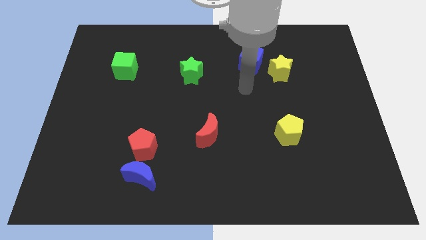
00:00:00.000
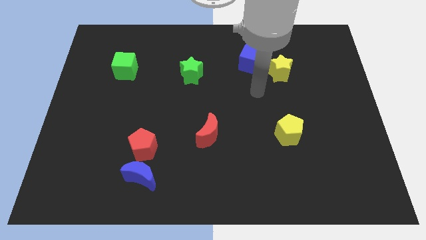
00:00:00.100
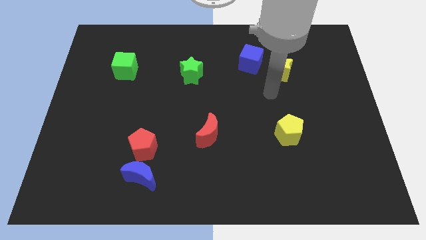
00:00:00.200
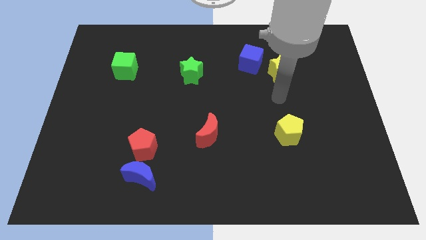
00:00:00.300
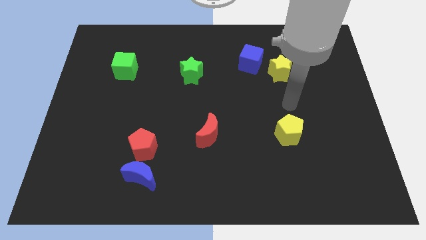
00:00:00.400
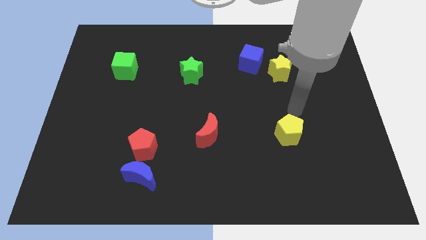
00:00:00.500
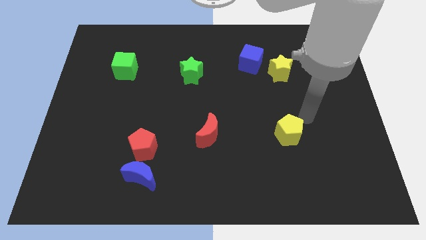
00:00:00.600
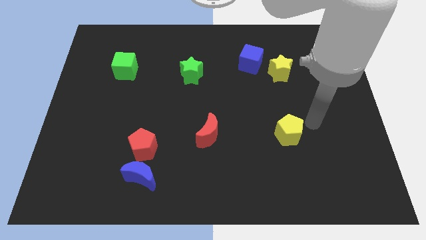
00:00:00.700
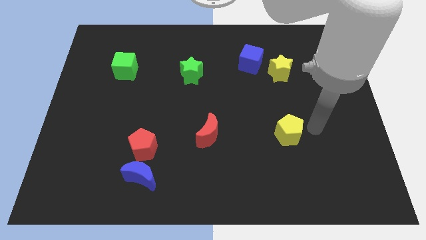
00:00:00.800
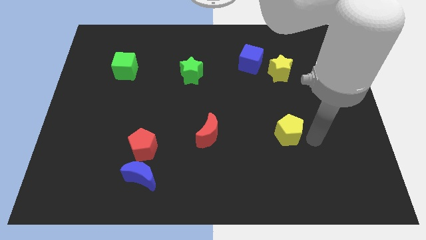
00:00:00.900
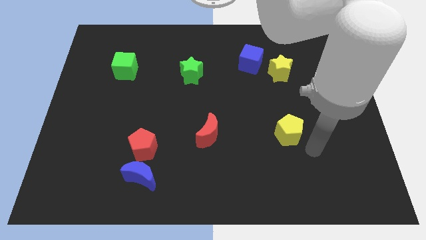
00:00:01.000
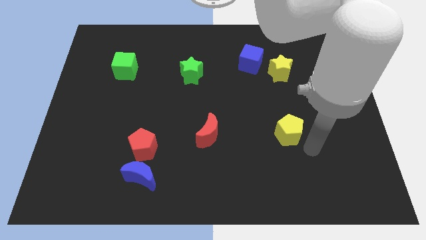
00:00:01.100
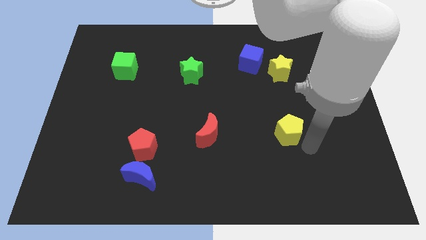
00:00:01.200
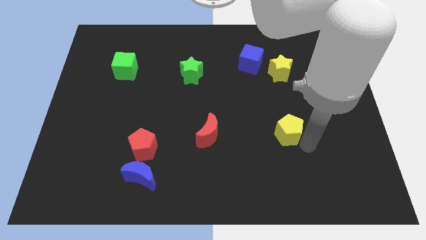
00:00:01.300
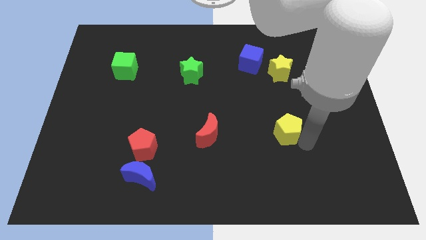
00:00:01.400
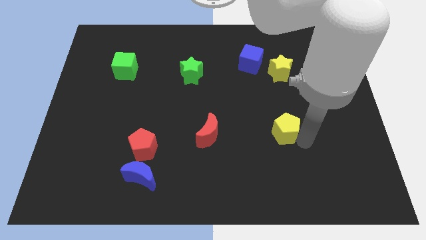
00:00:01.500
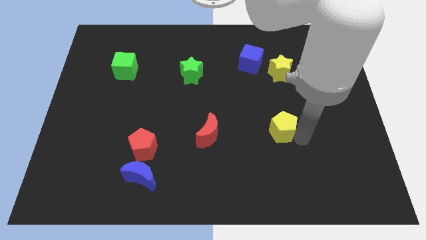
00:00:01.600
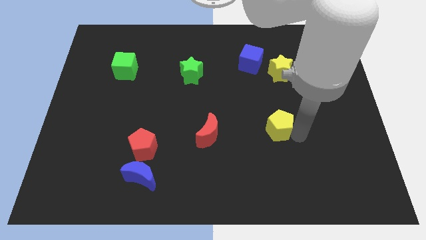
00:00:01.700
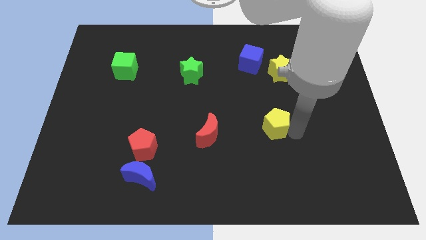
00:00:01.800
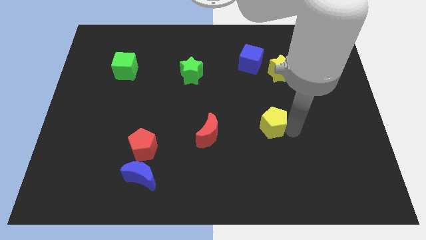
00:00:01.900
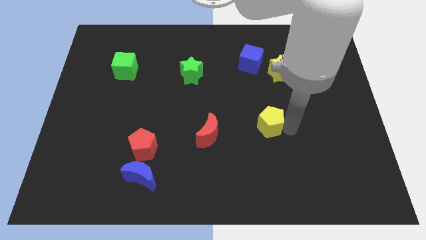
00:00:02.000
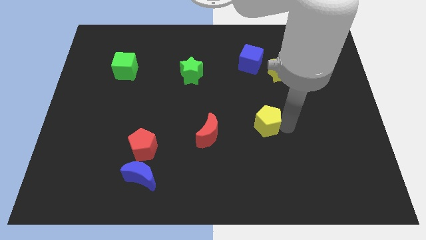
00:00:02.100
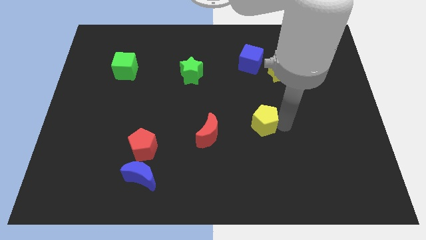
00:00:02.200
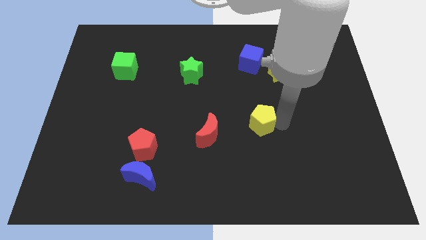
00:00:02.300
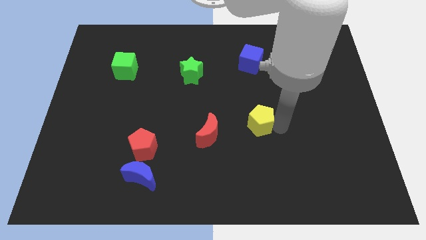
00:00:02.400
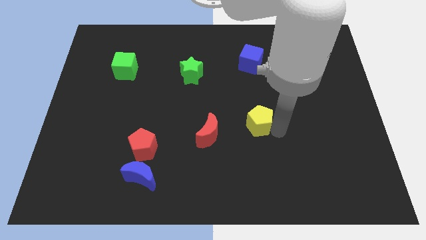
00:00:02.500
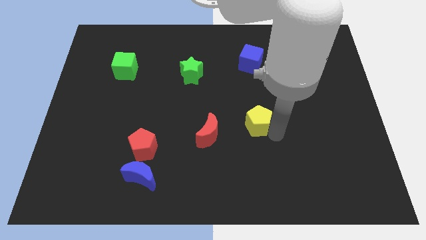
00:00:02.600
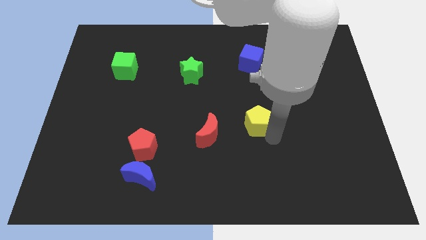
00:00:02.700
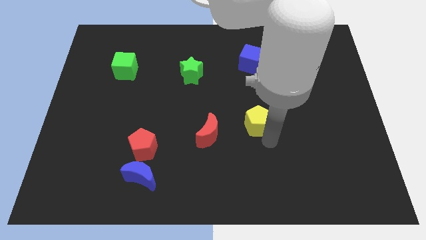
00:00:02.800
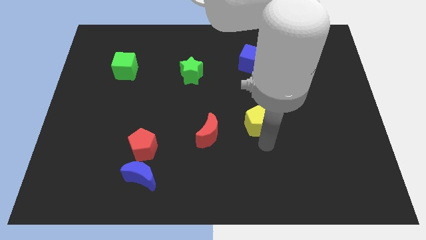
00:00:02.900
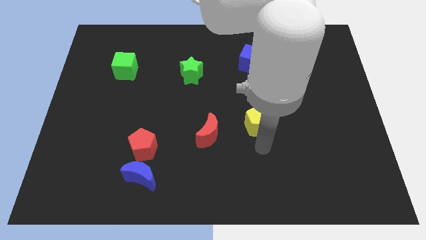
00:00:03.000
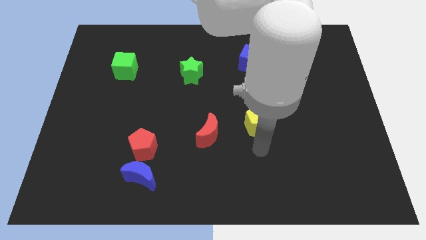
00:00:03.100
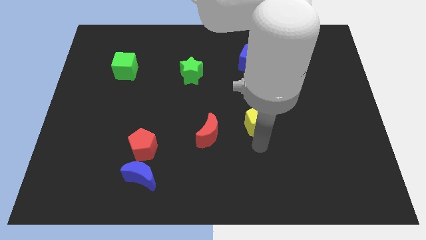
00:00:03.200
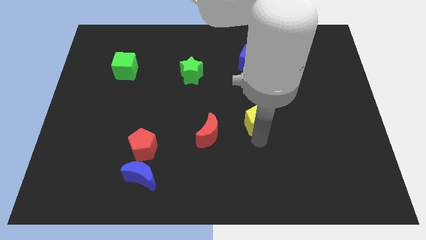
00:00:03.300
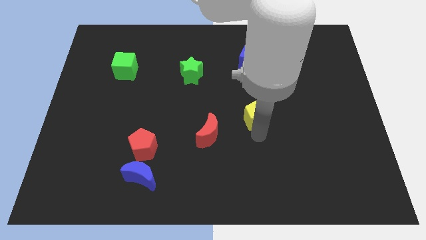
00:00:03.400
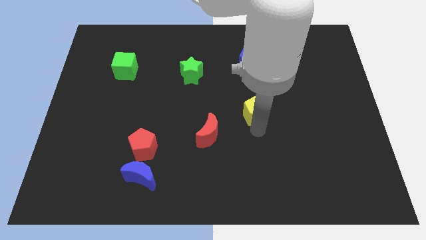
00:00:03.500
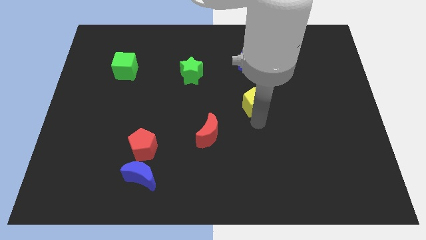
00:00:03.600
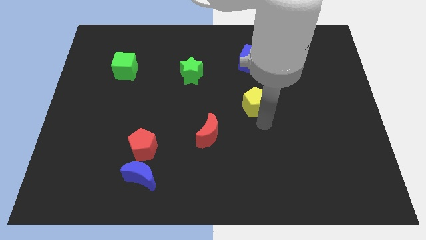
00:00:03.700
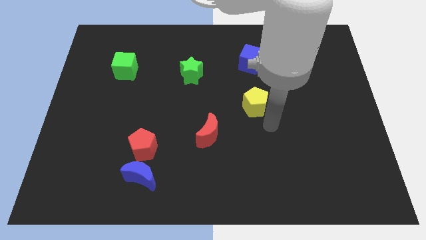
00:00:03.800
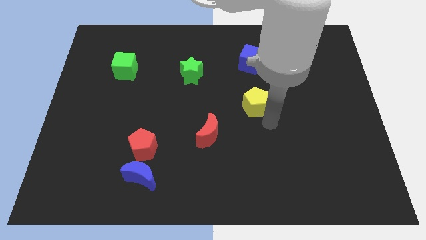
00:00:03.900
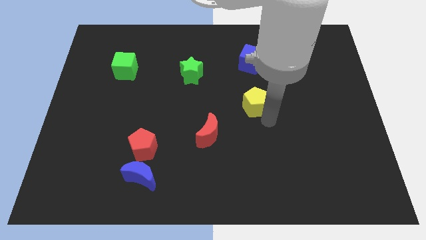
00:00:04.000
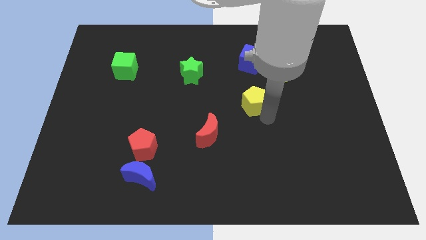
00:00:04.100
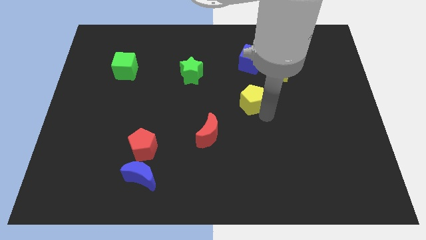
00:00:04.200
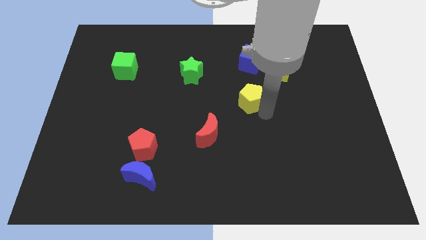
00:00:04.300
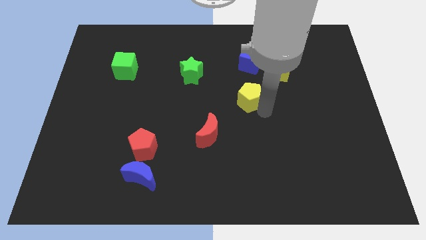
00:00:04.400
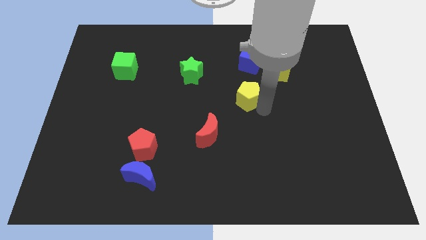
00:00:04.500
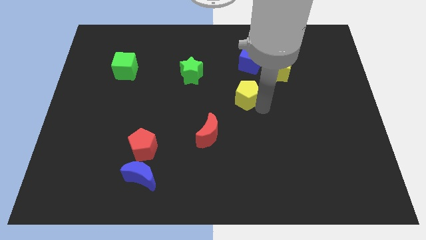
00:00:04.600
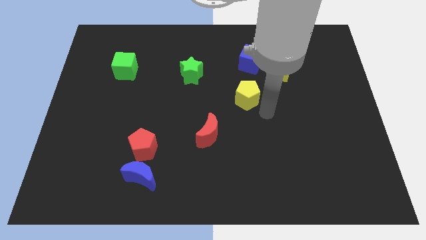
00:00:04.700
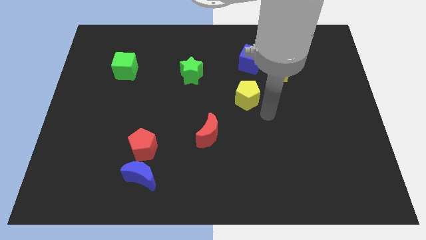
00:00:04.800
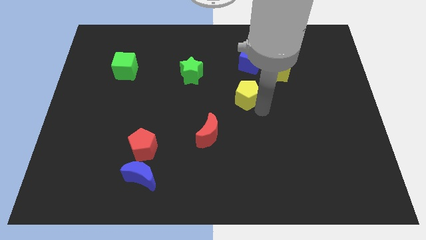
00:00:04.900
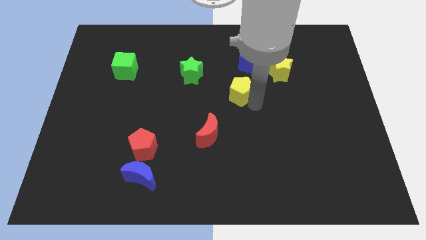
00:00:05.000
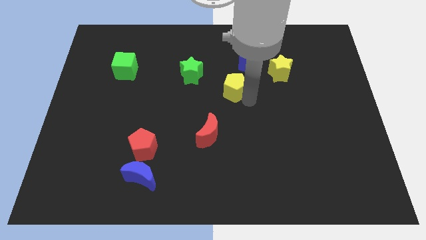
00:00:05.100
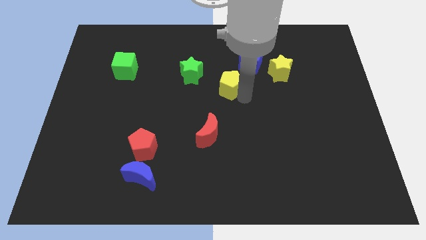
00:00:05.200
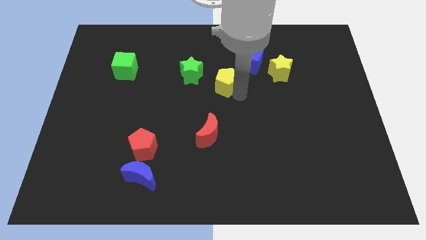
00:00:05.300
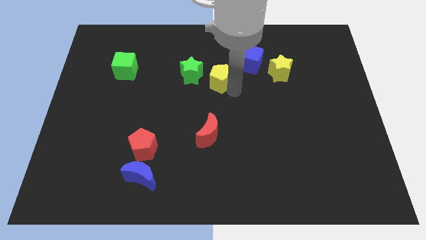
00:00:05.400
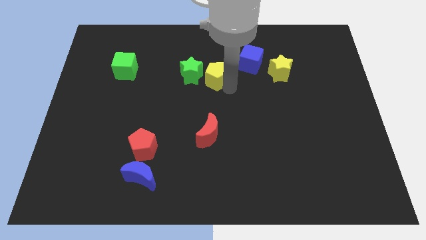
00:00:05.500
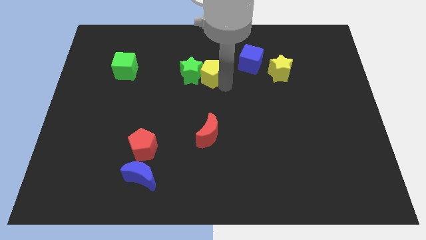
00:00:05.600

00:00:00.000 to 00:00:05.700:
put the yellow pentagon diagonally up and to the right of the green star
